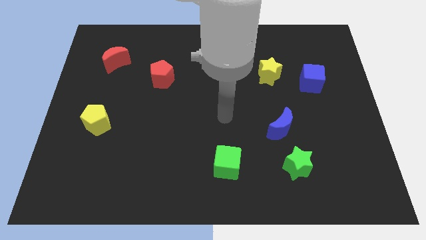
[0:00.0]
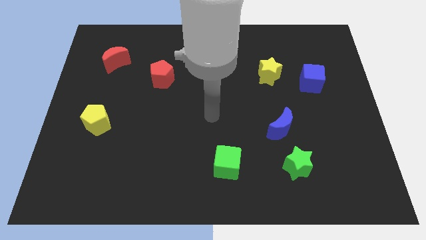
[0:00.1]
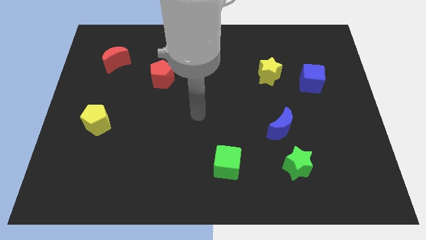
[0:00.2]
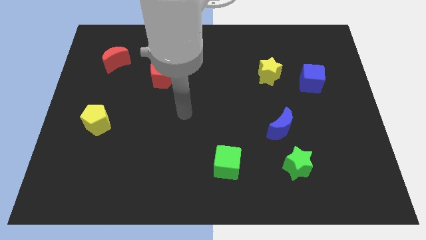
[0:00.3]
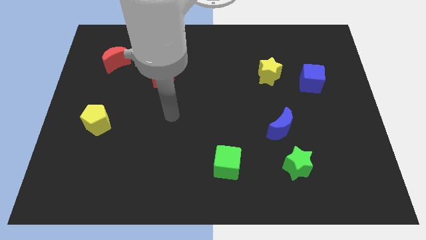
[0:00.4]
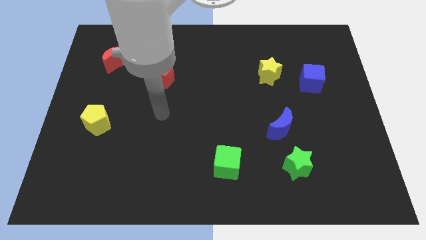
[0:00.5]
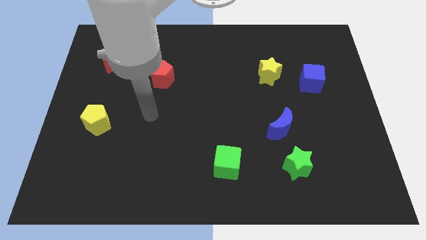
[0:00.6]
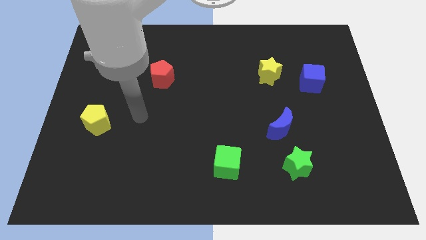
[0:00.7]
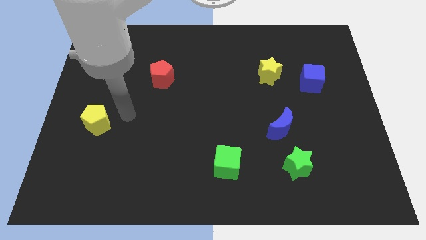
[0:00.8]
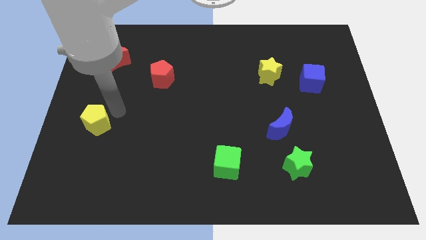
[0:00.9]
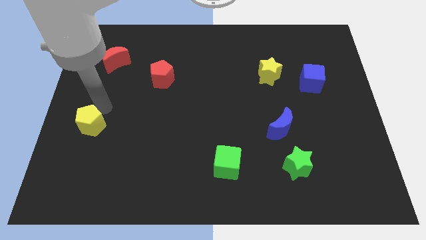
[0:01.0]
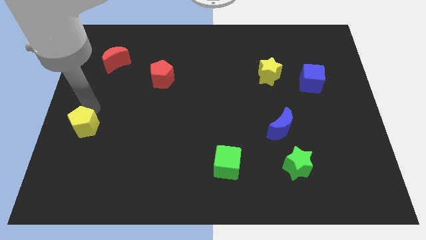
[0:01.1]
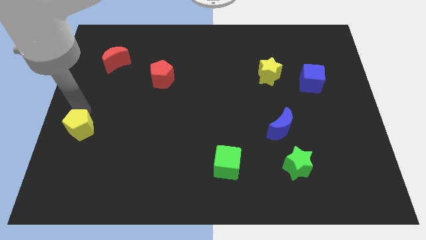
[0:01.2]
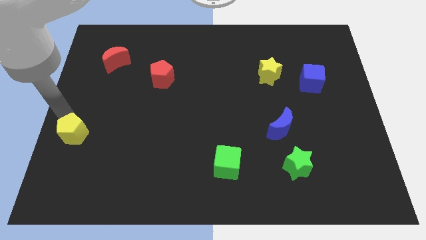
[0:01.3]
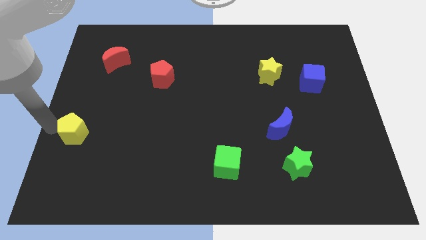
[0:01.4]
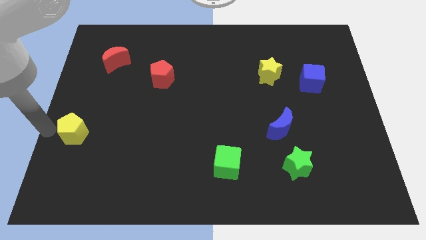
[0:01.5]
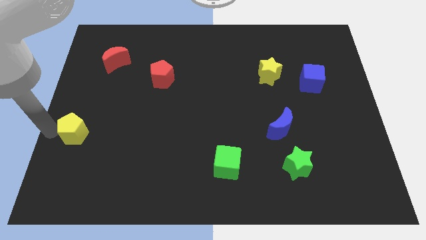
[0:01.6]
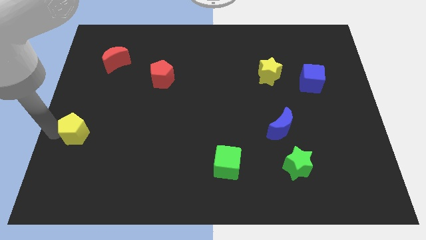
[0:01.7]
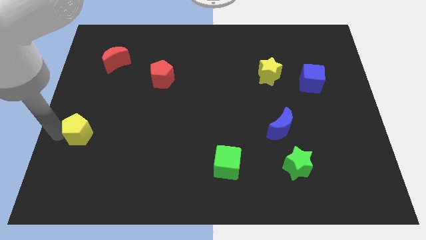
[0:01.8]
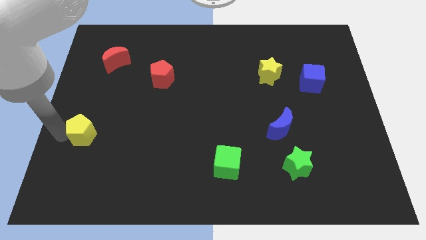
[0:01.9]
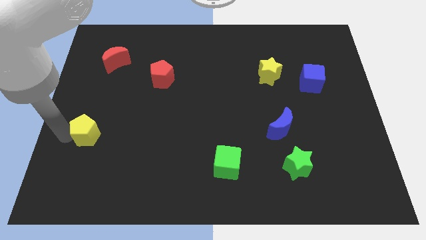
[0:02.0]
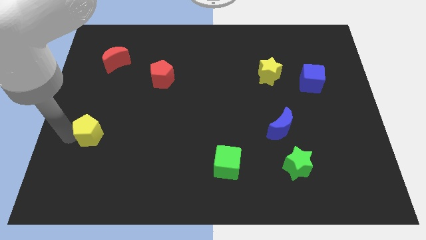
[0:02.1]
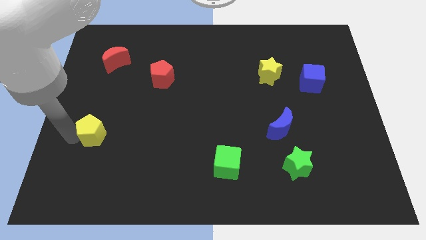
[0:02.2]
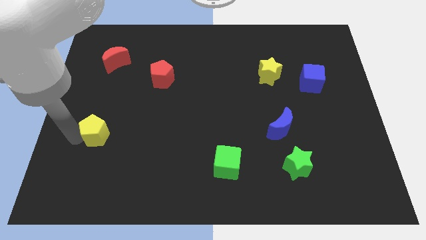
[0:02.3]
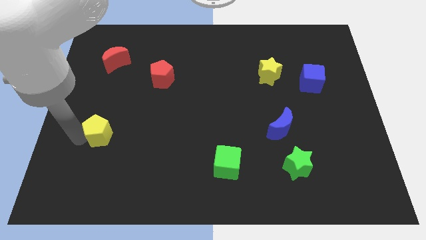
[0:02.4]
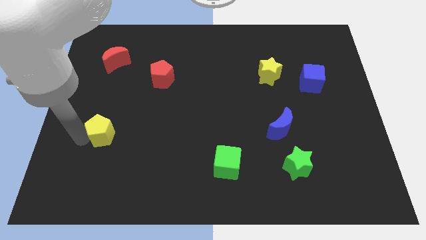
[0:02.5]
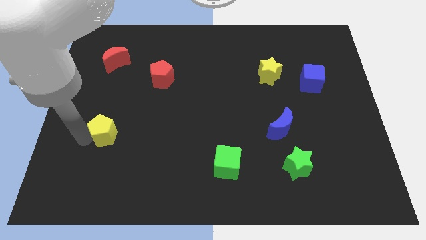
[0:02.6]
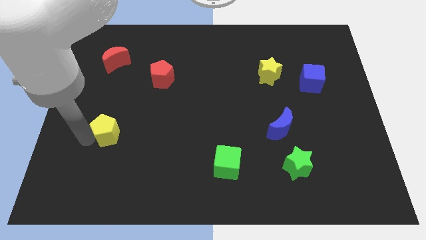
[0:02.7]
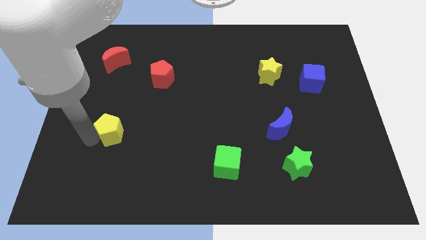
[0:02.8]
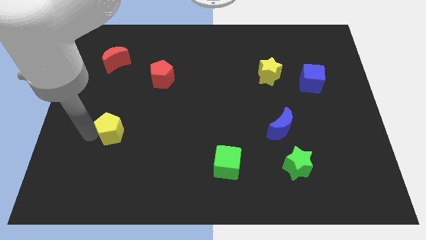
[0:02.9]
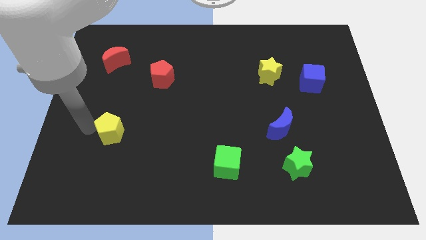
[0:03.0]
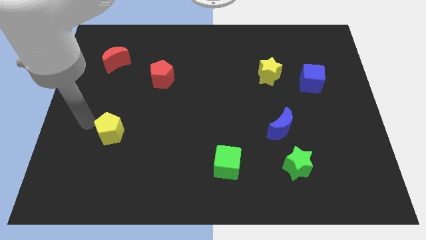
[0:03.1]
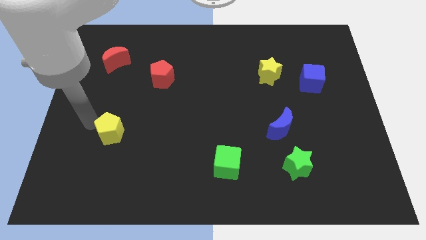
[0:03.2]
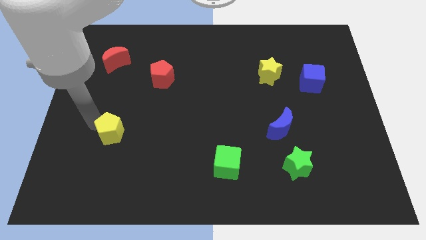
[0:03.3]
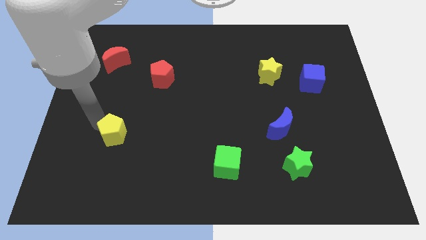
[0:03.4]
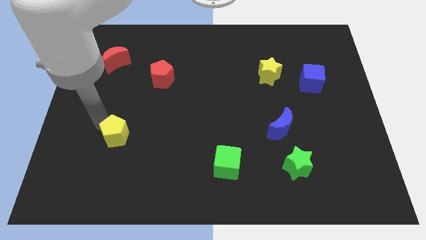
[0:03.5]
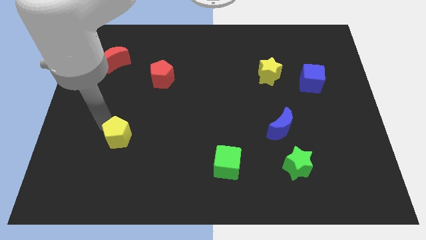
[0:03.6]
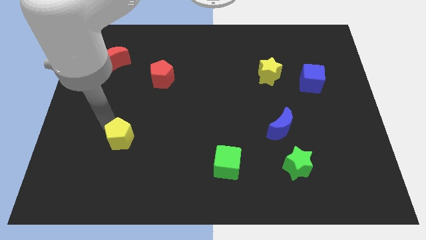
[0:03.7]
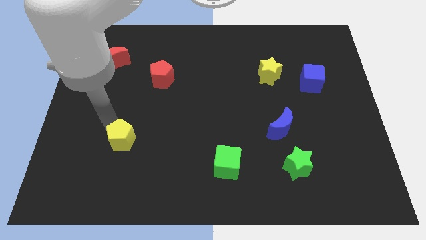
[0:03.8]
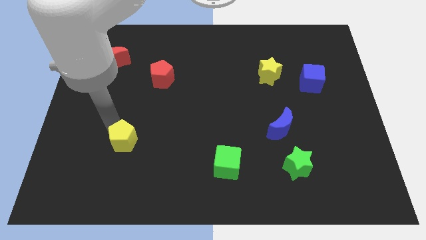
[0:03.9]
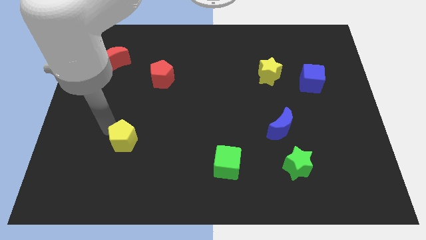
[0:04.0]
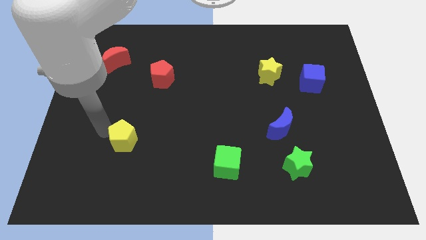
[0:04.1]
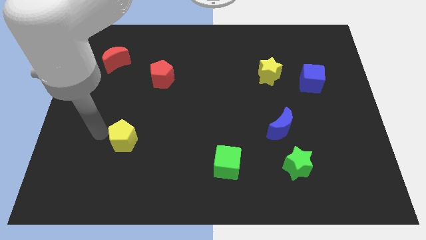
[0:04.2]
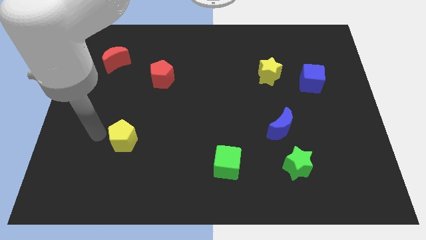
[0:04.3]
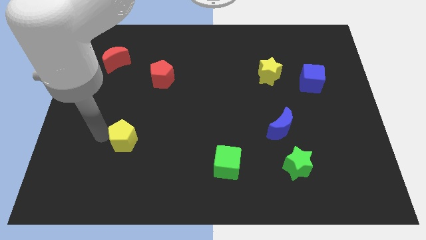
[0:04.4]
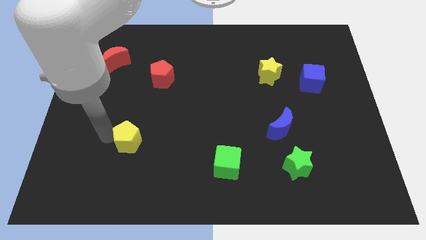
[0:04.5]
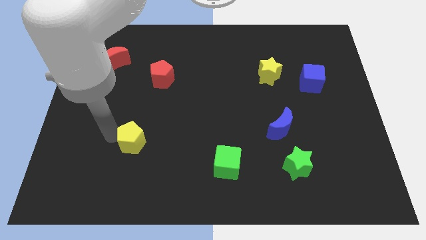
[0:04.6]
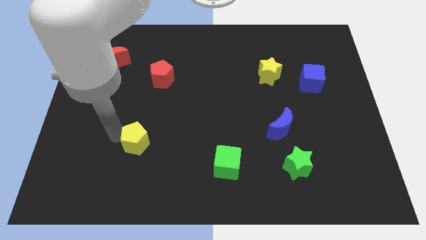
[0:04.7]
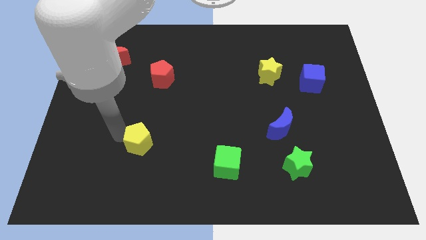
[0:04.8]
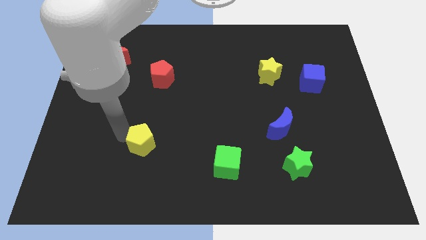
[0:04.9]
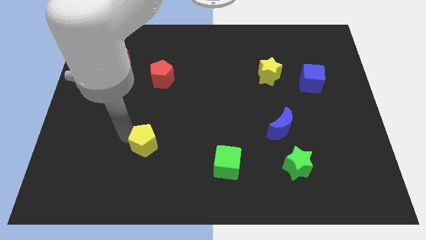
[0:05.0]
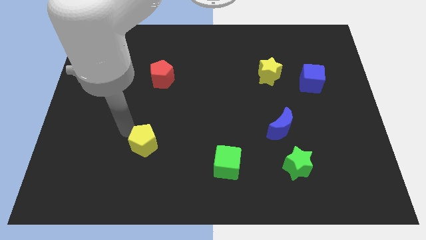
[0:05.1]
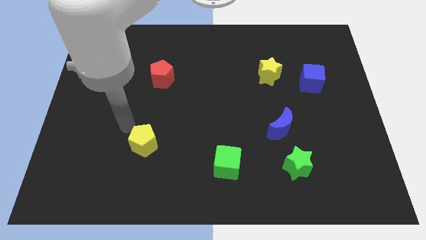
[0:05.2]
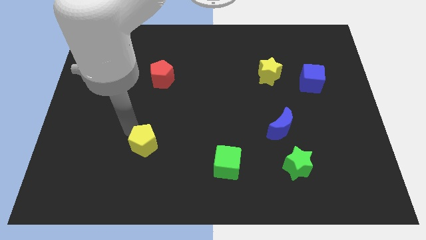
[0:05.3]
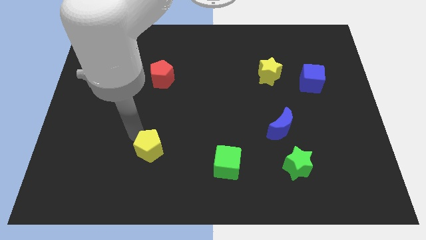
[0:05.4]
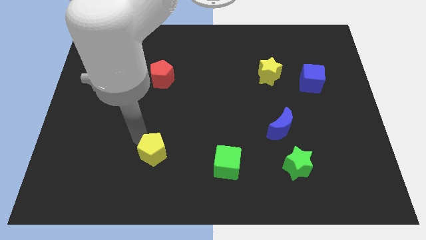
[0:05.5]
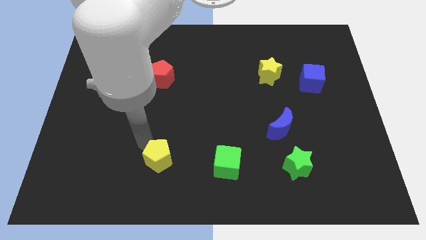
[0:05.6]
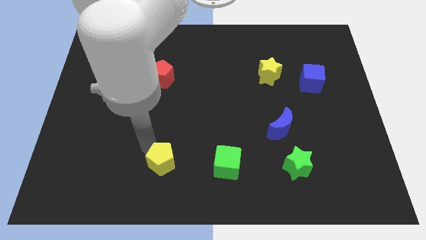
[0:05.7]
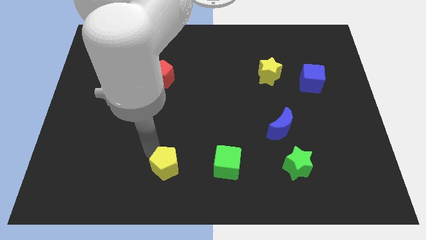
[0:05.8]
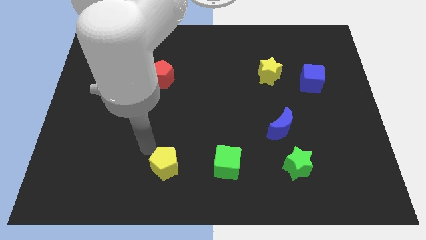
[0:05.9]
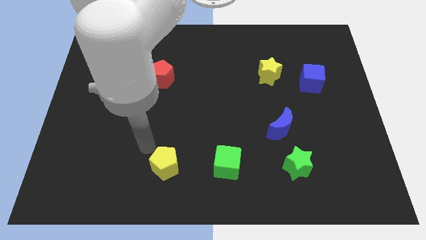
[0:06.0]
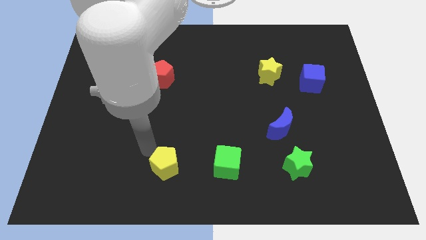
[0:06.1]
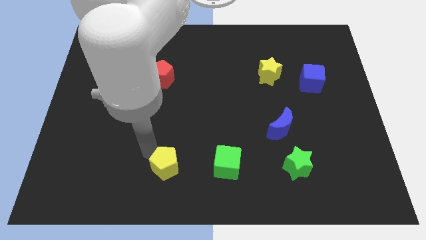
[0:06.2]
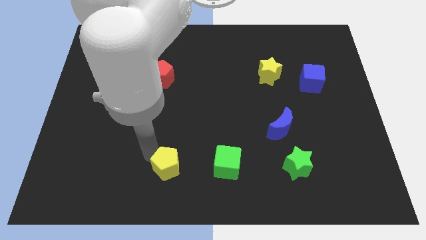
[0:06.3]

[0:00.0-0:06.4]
move the yellow pentagon to the bottom side

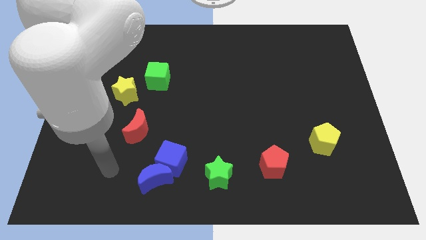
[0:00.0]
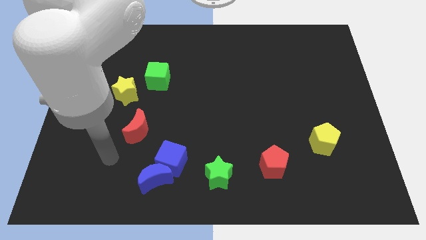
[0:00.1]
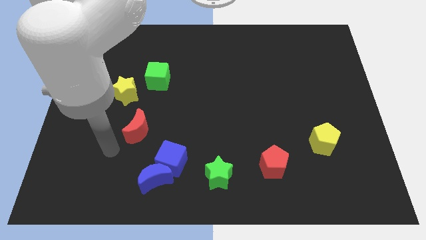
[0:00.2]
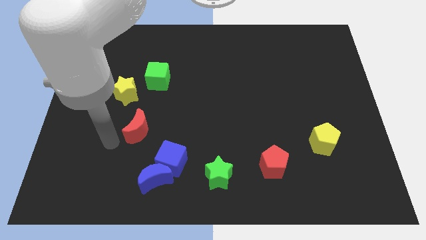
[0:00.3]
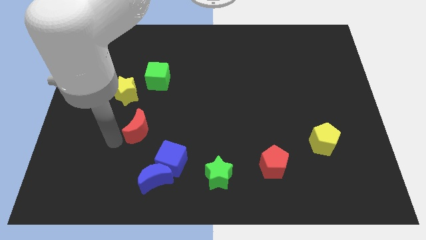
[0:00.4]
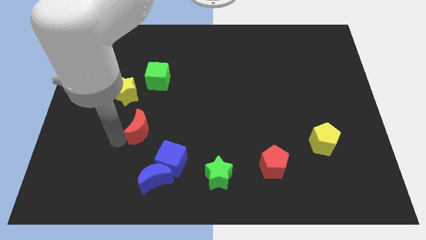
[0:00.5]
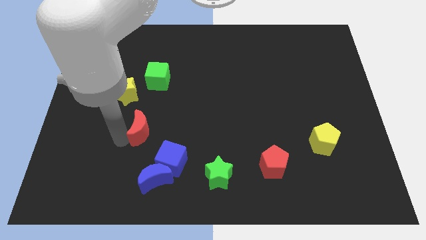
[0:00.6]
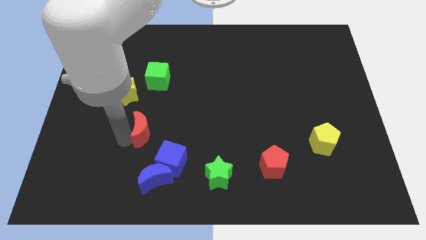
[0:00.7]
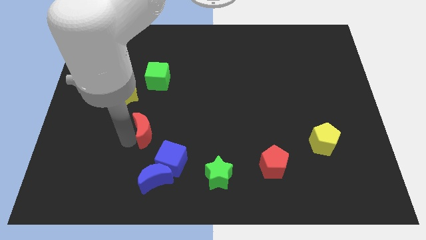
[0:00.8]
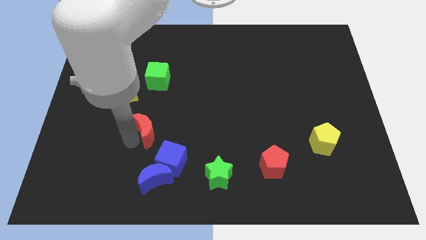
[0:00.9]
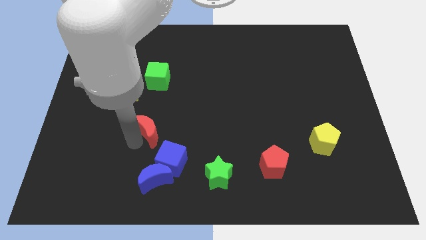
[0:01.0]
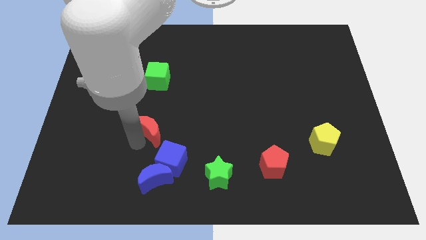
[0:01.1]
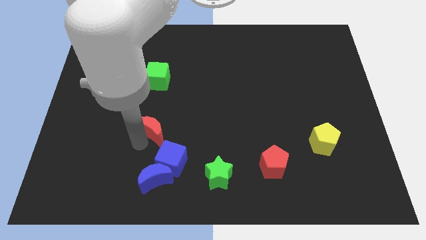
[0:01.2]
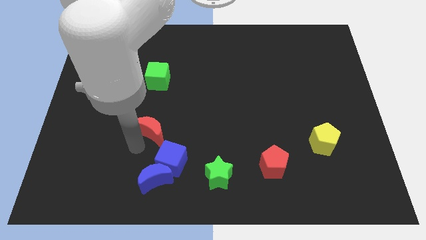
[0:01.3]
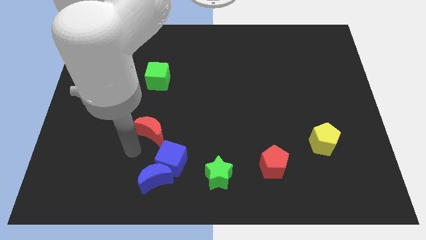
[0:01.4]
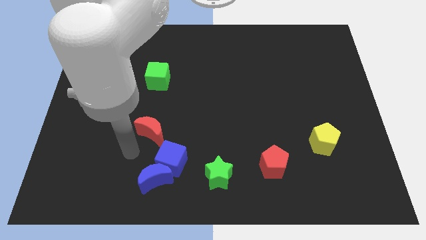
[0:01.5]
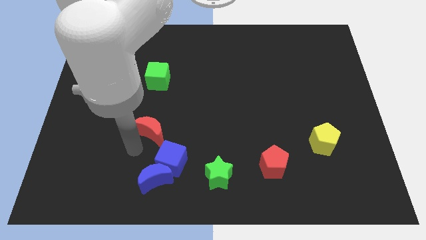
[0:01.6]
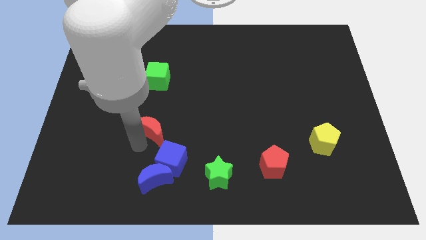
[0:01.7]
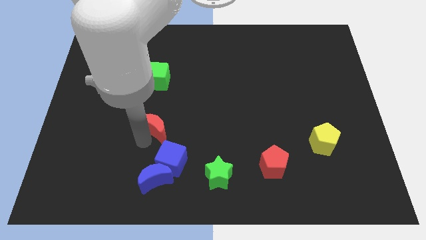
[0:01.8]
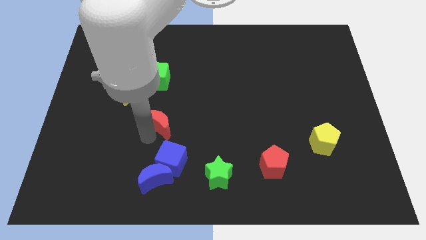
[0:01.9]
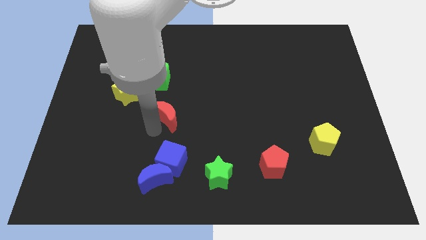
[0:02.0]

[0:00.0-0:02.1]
put the red moon to the middle
